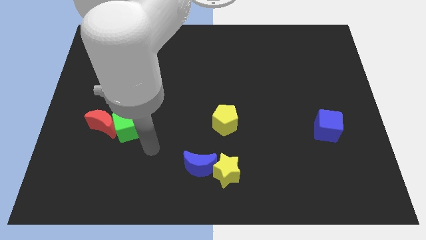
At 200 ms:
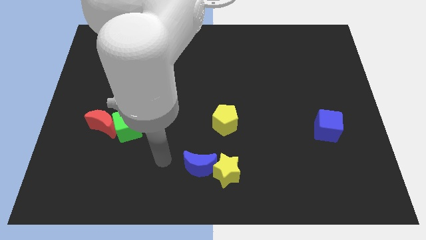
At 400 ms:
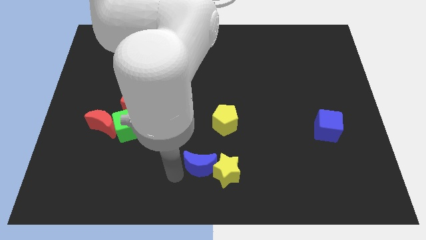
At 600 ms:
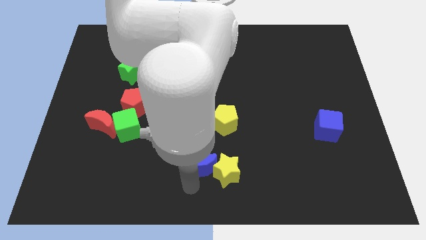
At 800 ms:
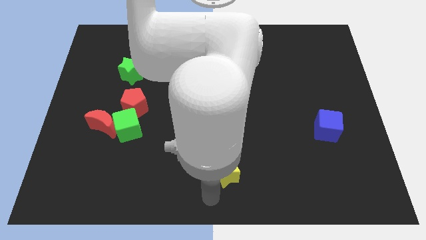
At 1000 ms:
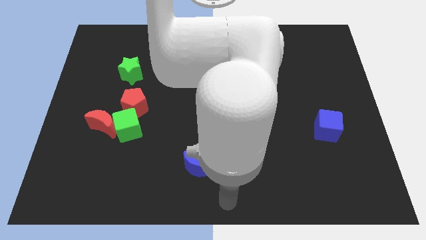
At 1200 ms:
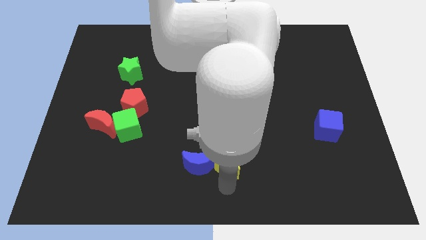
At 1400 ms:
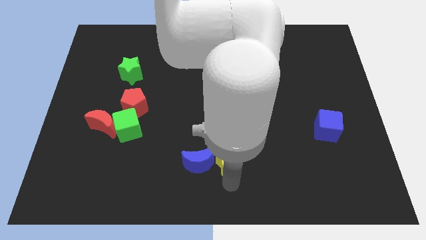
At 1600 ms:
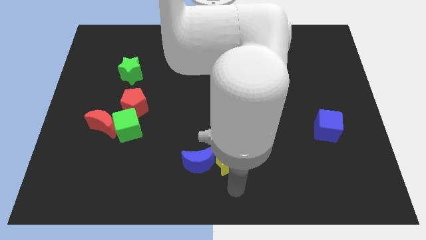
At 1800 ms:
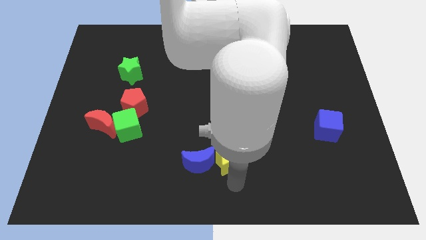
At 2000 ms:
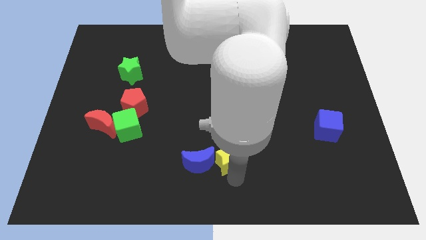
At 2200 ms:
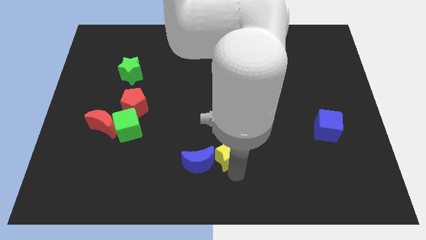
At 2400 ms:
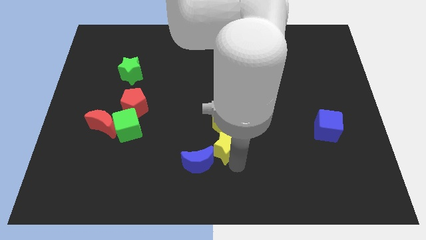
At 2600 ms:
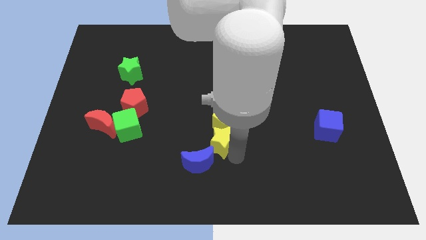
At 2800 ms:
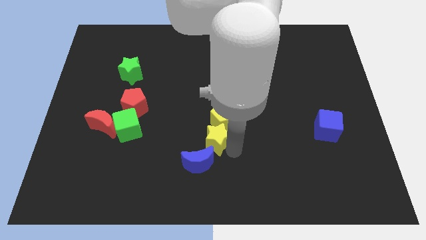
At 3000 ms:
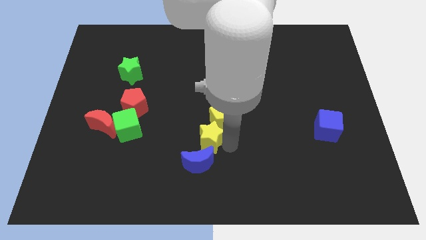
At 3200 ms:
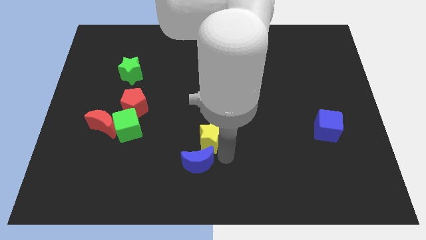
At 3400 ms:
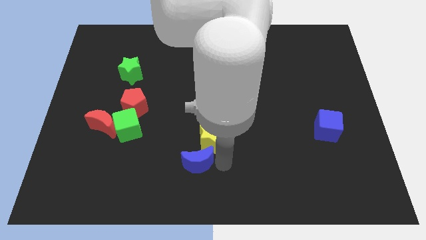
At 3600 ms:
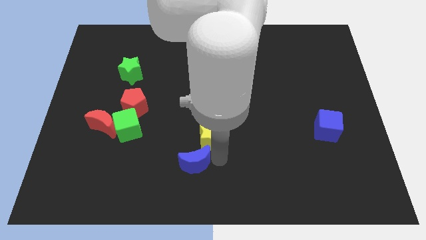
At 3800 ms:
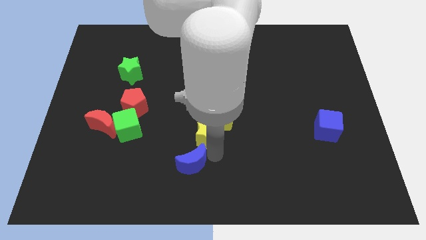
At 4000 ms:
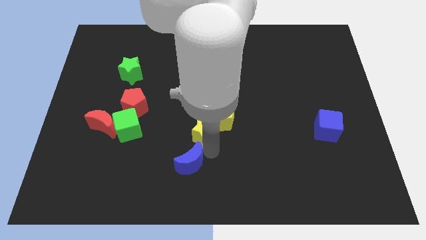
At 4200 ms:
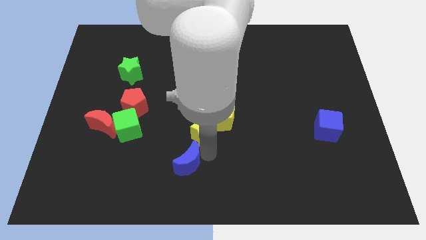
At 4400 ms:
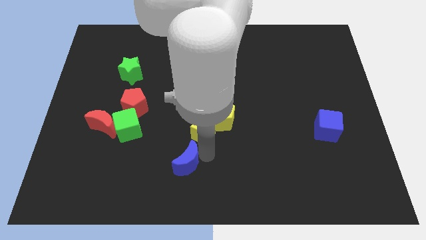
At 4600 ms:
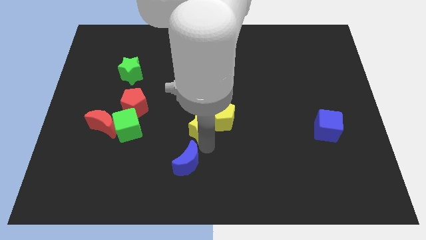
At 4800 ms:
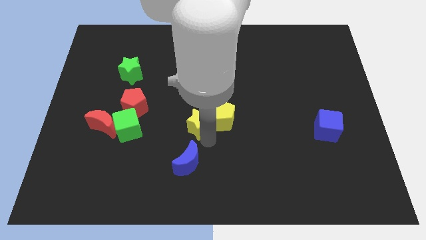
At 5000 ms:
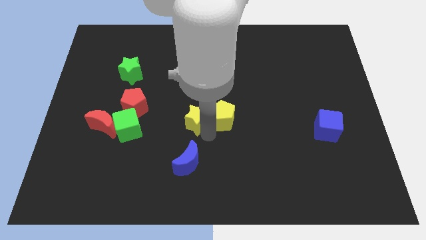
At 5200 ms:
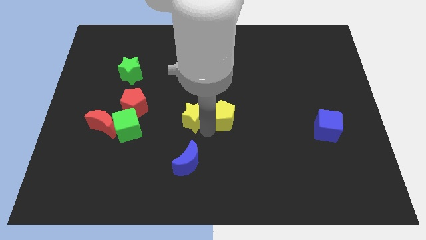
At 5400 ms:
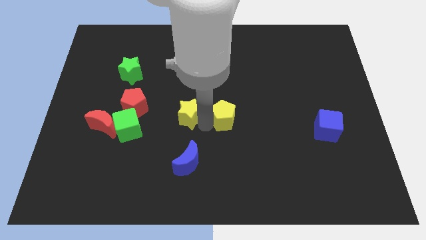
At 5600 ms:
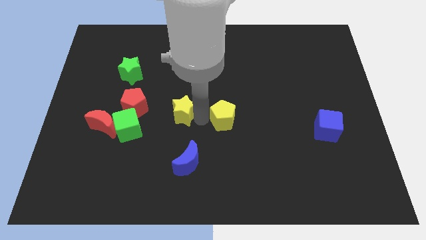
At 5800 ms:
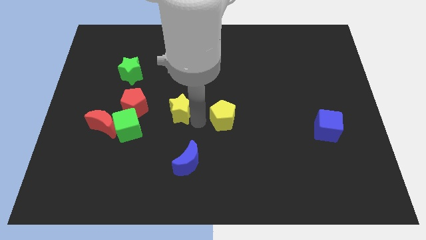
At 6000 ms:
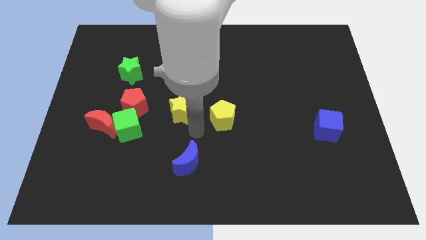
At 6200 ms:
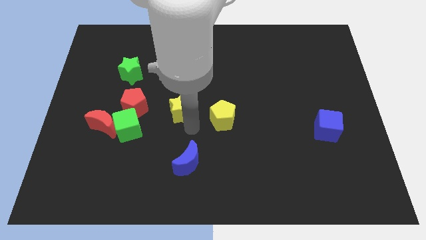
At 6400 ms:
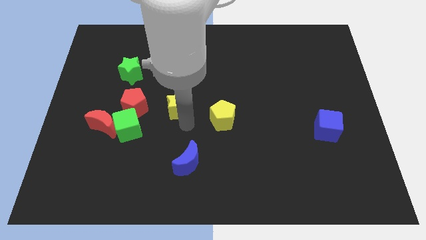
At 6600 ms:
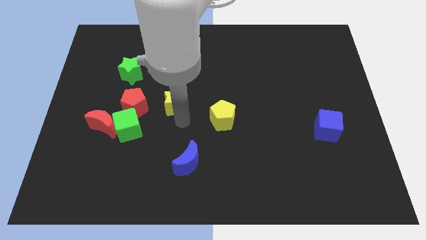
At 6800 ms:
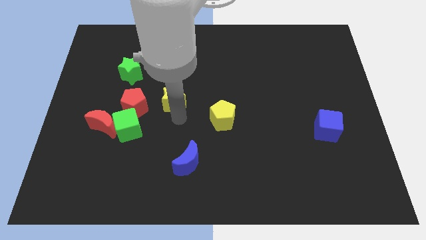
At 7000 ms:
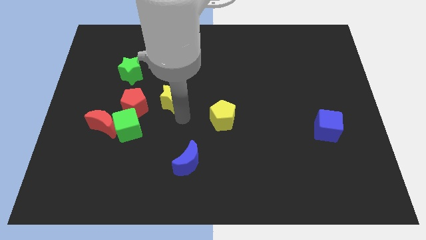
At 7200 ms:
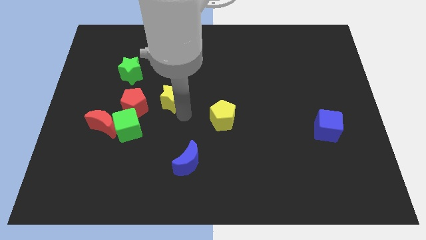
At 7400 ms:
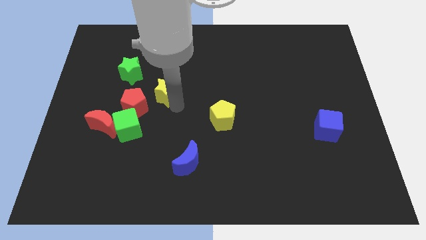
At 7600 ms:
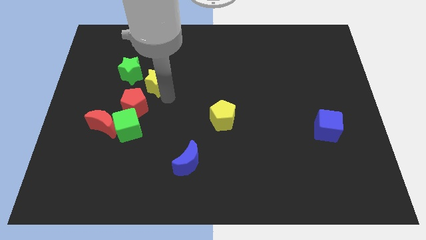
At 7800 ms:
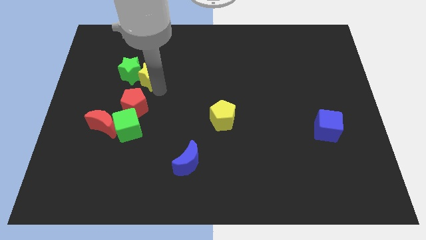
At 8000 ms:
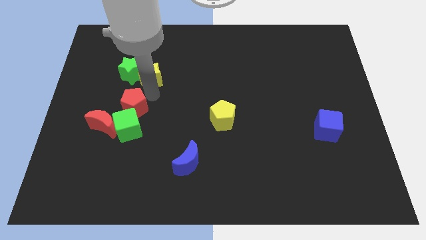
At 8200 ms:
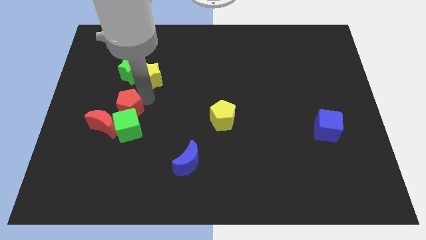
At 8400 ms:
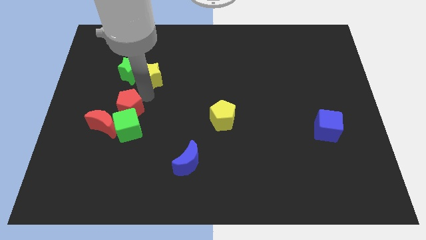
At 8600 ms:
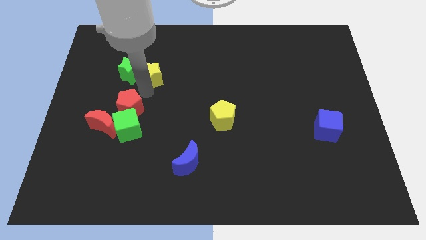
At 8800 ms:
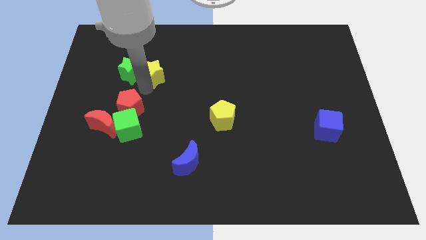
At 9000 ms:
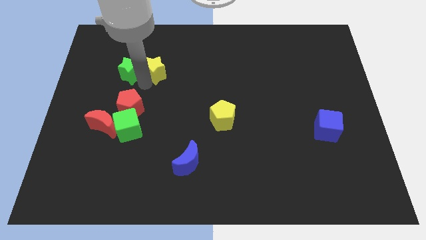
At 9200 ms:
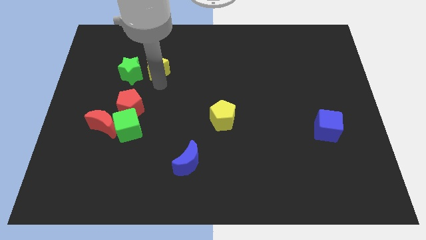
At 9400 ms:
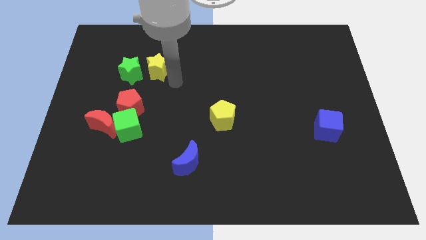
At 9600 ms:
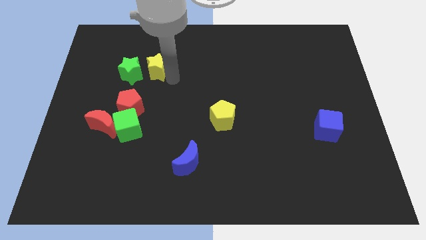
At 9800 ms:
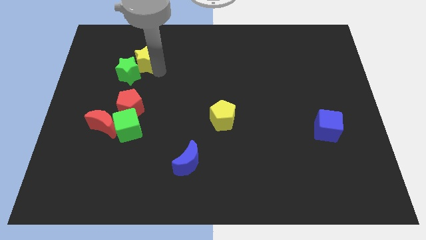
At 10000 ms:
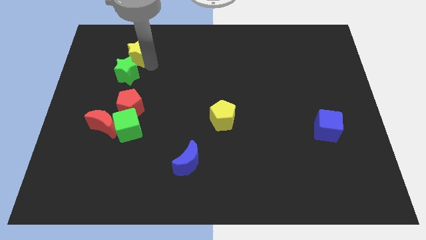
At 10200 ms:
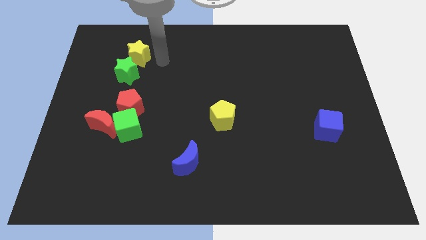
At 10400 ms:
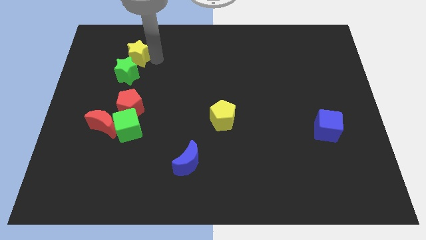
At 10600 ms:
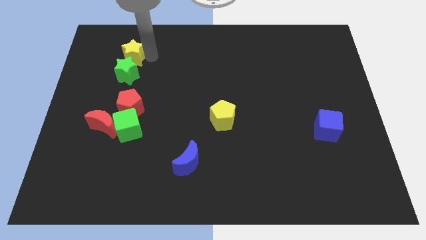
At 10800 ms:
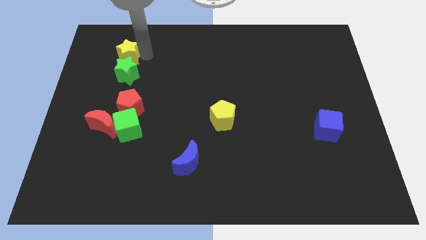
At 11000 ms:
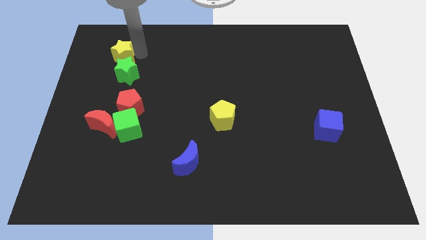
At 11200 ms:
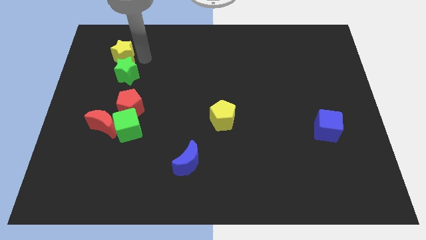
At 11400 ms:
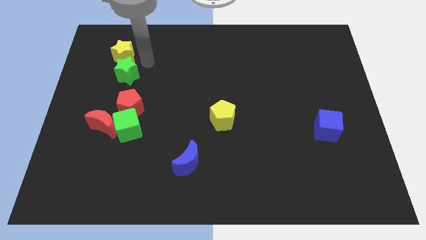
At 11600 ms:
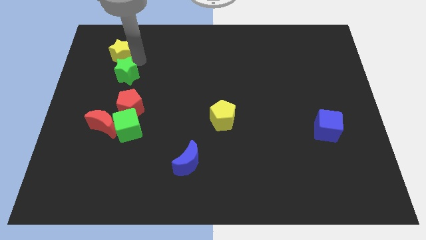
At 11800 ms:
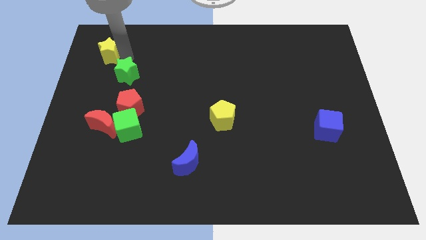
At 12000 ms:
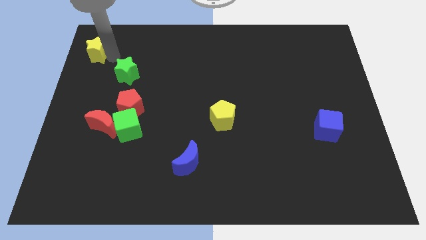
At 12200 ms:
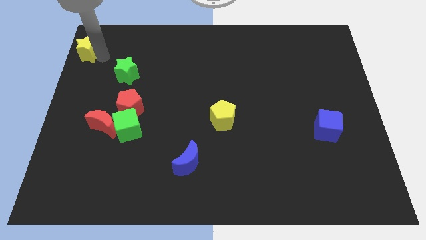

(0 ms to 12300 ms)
put the yellow star to the upper left corner

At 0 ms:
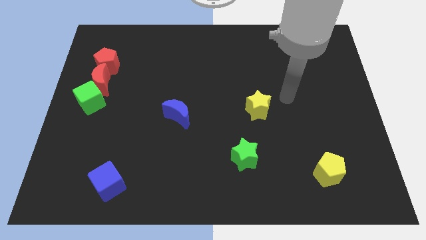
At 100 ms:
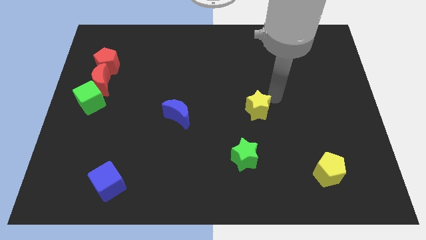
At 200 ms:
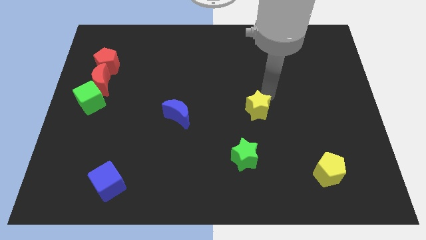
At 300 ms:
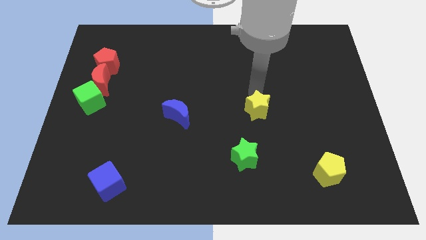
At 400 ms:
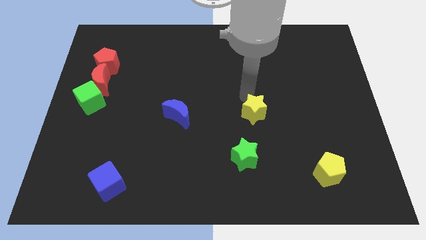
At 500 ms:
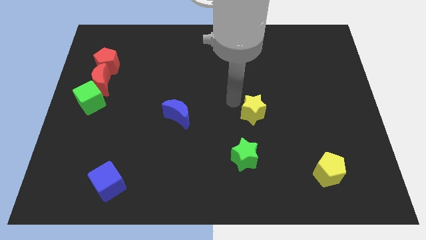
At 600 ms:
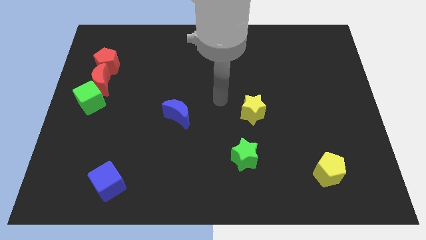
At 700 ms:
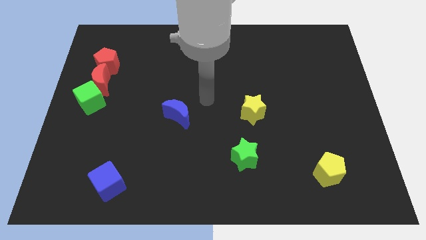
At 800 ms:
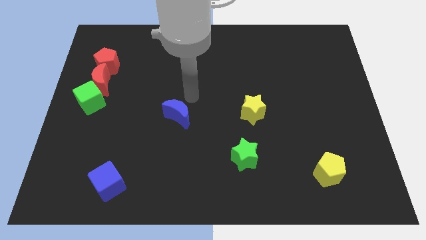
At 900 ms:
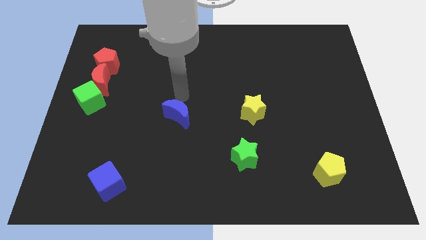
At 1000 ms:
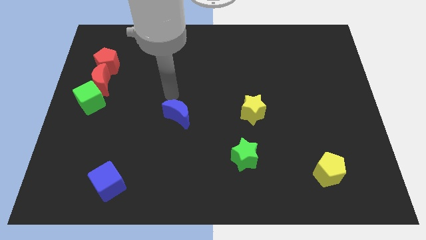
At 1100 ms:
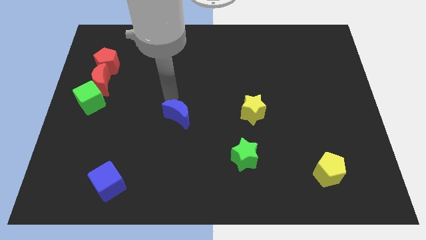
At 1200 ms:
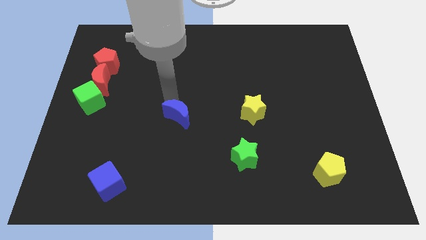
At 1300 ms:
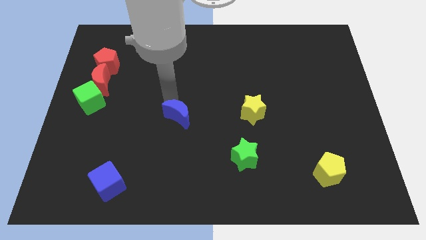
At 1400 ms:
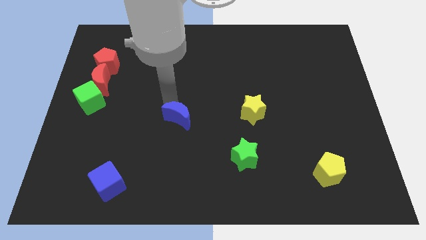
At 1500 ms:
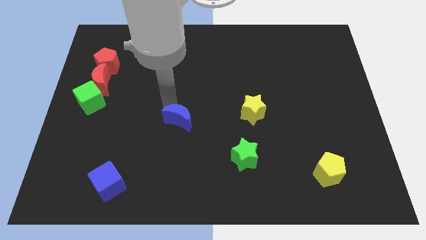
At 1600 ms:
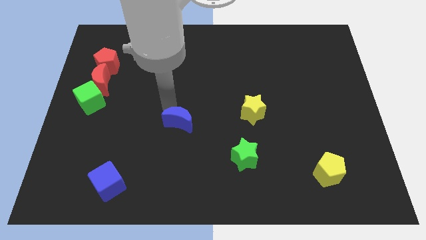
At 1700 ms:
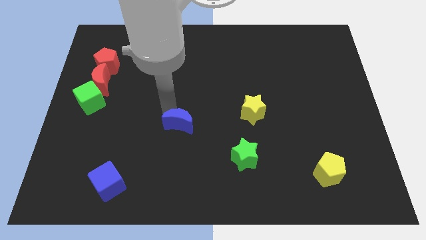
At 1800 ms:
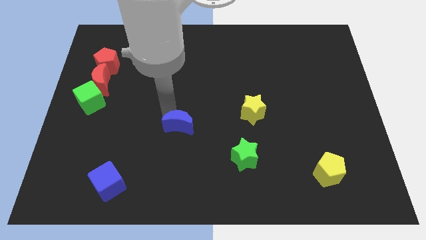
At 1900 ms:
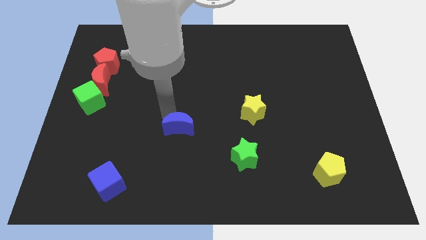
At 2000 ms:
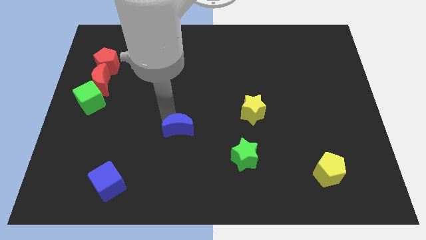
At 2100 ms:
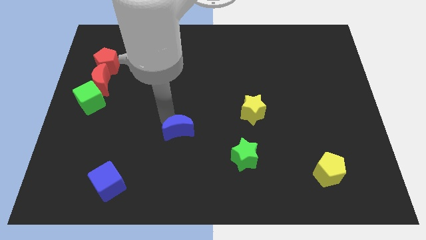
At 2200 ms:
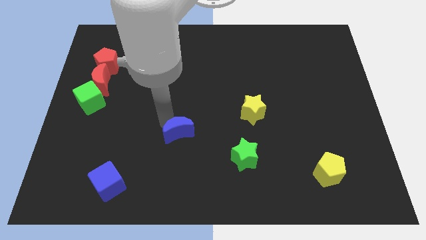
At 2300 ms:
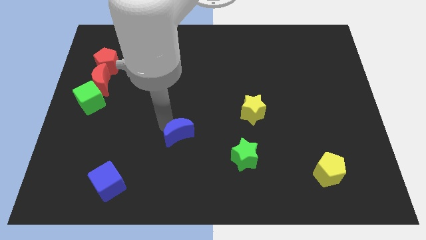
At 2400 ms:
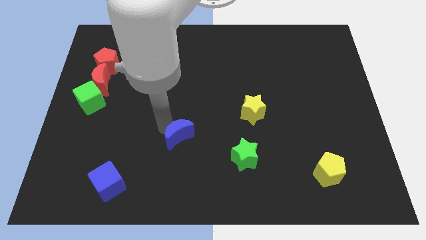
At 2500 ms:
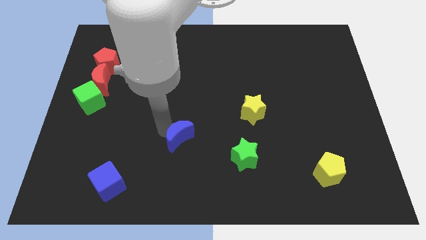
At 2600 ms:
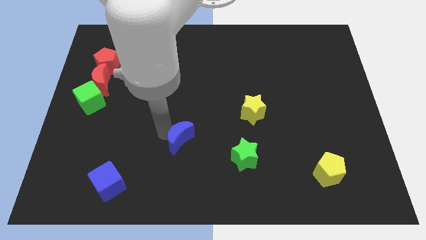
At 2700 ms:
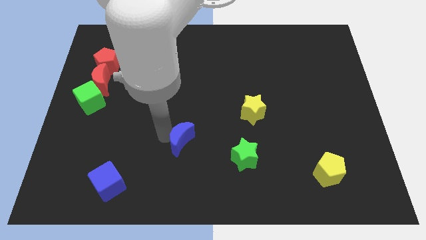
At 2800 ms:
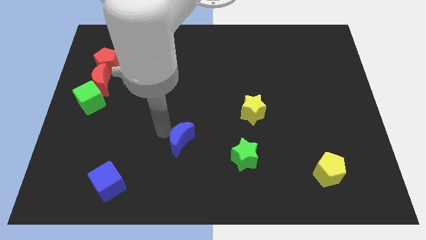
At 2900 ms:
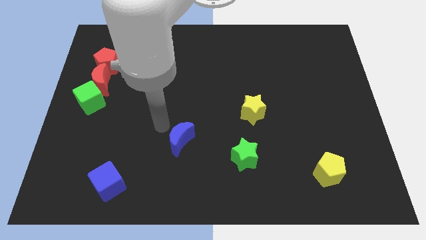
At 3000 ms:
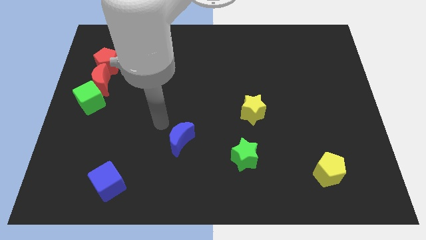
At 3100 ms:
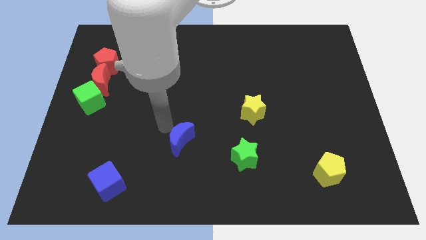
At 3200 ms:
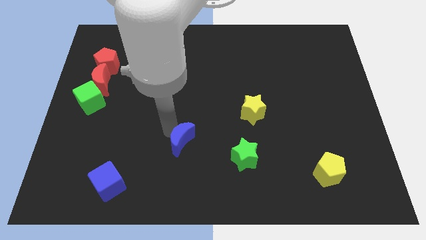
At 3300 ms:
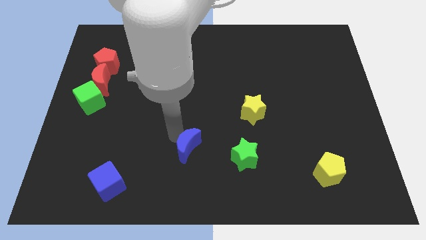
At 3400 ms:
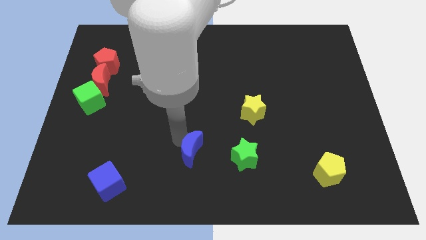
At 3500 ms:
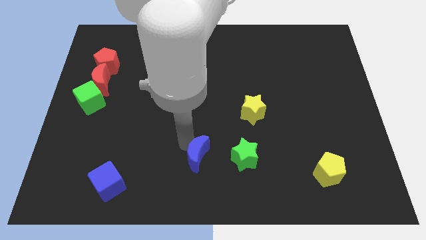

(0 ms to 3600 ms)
slide the blue moon to the bottom
